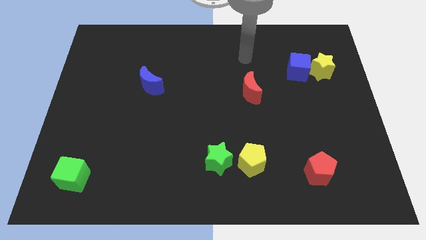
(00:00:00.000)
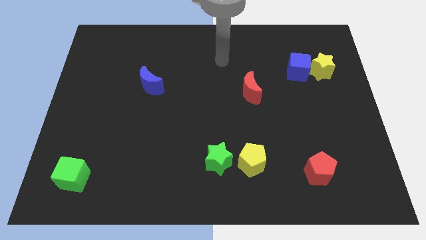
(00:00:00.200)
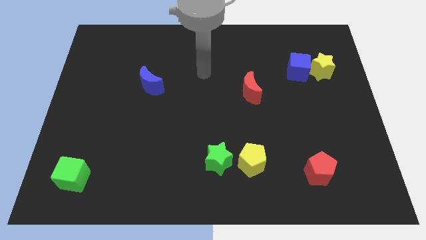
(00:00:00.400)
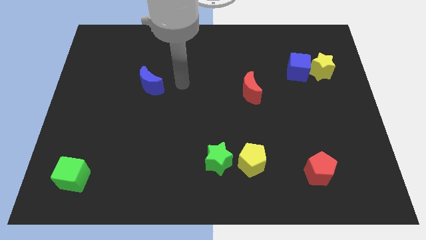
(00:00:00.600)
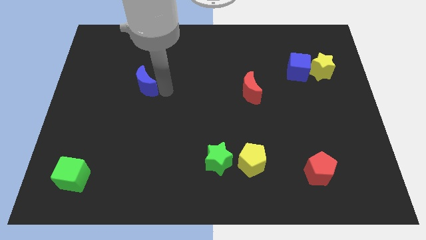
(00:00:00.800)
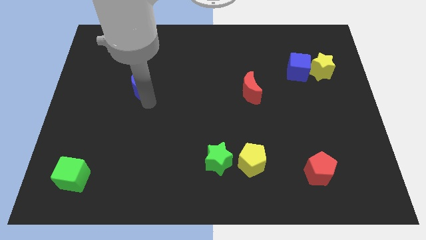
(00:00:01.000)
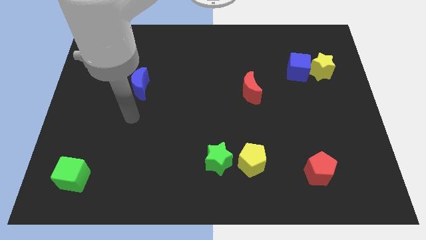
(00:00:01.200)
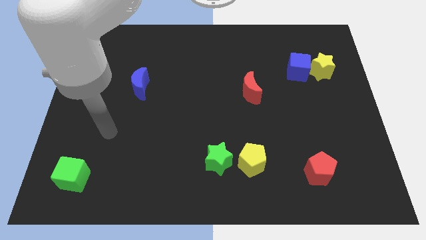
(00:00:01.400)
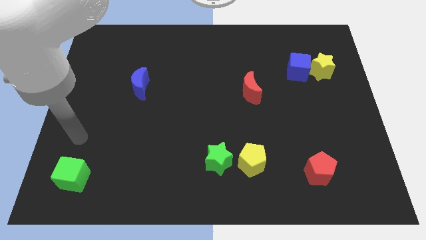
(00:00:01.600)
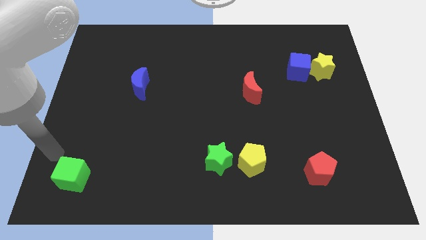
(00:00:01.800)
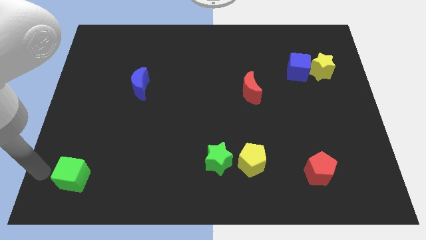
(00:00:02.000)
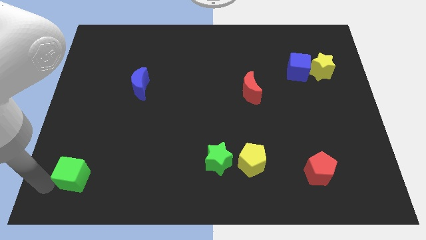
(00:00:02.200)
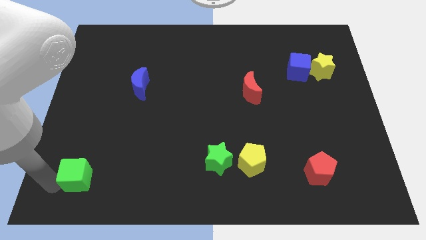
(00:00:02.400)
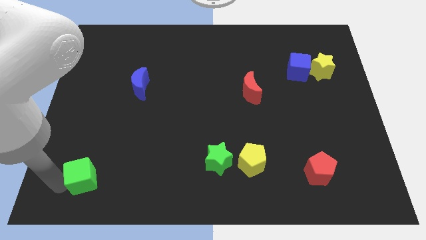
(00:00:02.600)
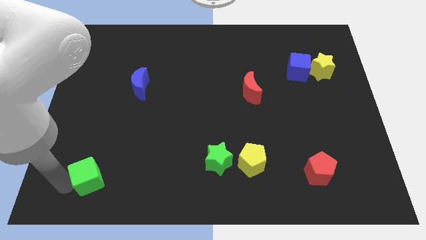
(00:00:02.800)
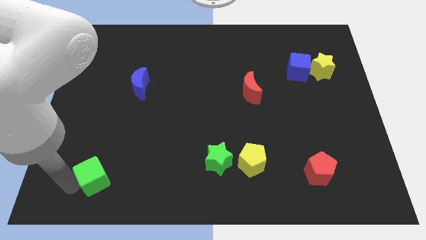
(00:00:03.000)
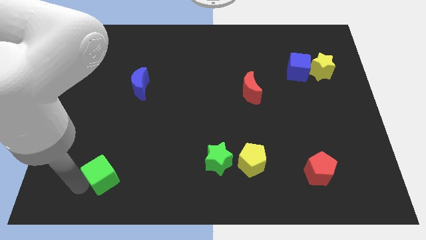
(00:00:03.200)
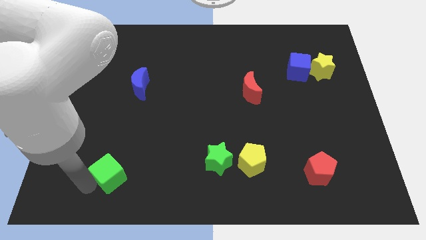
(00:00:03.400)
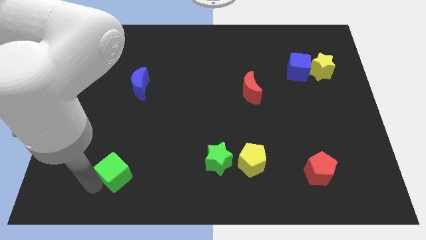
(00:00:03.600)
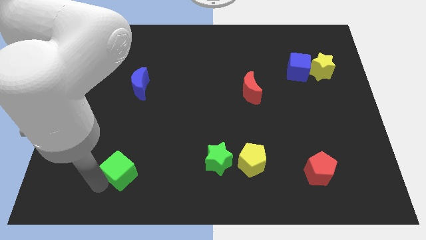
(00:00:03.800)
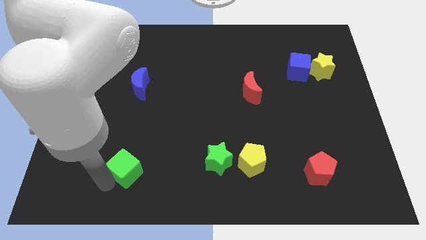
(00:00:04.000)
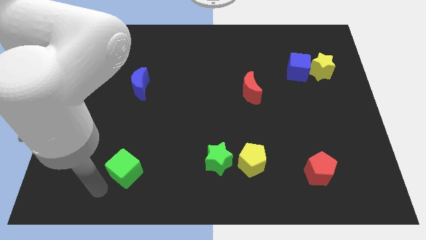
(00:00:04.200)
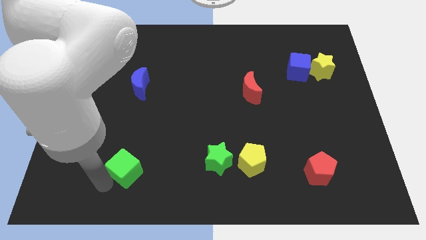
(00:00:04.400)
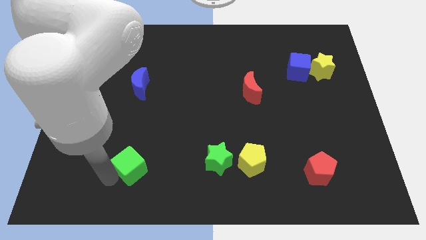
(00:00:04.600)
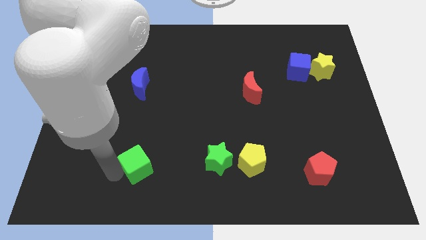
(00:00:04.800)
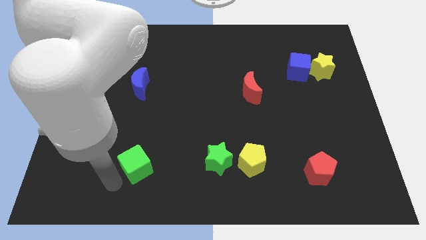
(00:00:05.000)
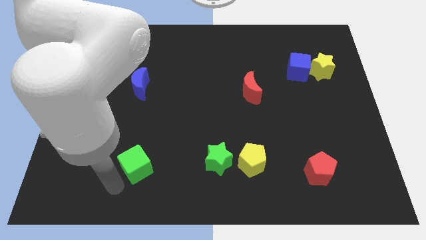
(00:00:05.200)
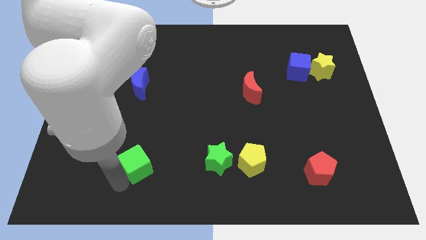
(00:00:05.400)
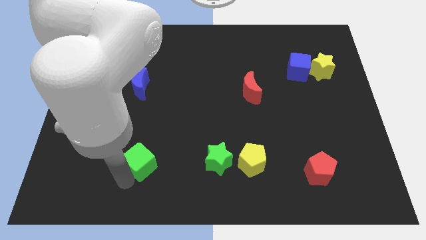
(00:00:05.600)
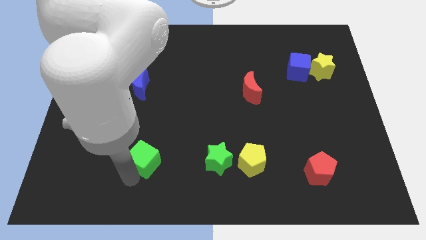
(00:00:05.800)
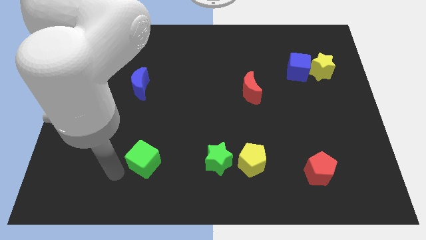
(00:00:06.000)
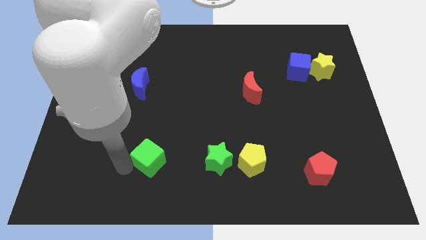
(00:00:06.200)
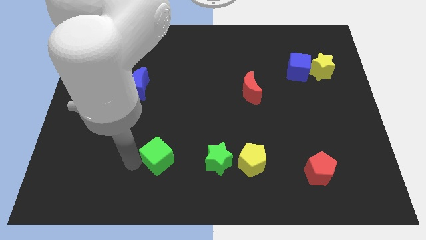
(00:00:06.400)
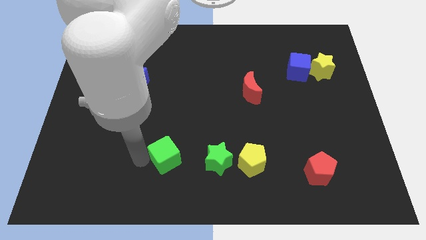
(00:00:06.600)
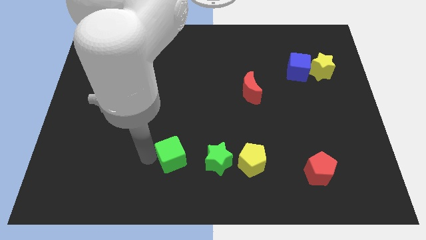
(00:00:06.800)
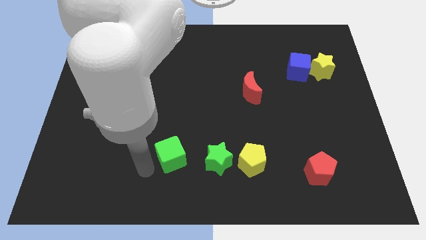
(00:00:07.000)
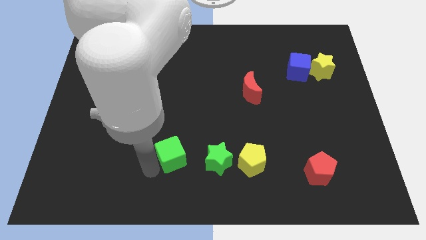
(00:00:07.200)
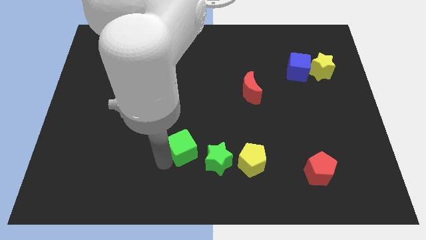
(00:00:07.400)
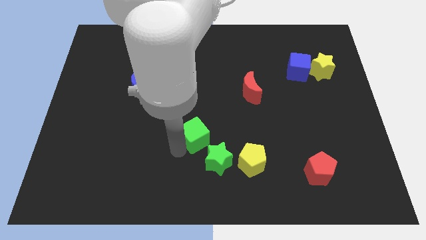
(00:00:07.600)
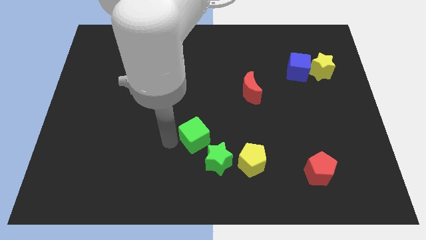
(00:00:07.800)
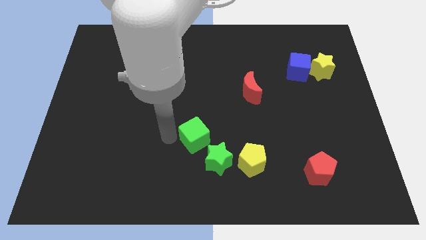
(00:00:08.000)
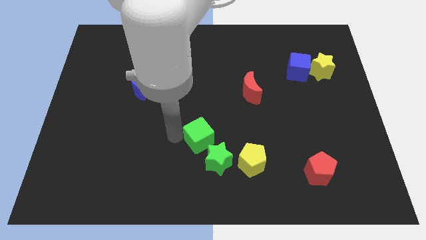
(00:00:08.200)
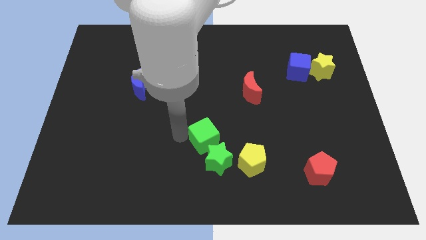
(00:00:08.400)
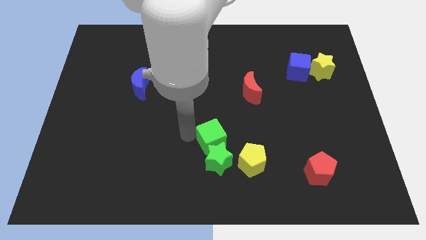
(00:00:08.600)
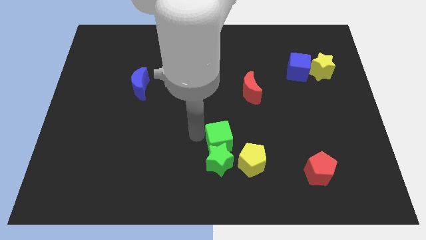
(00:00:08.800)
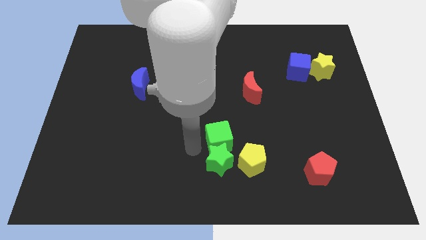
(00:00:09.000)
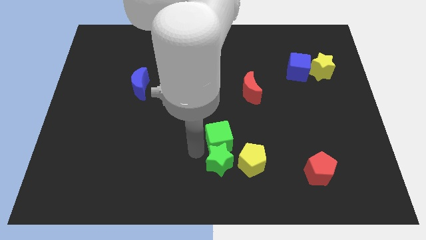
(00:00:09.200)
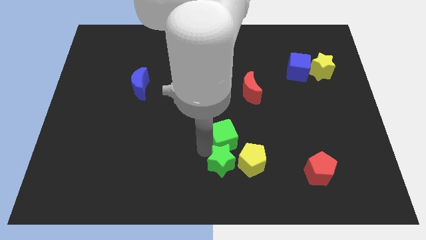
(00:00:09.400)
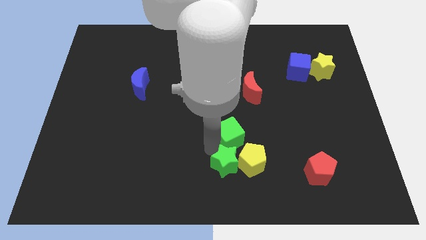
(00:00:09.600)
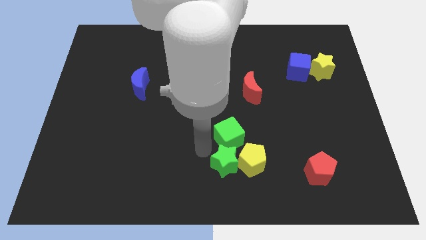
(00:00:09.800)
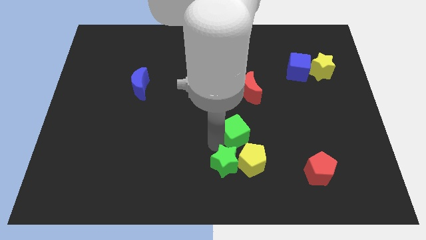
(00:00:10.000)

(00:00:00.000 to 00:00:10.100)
move the green cube to the bottom of the red moon

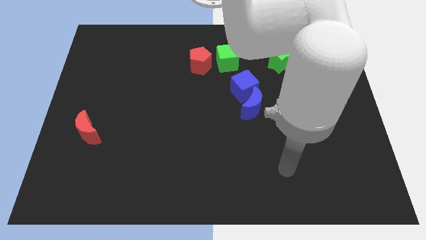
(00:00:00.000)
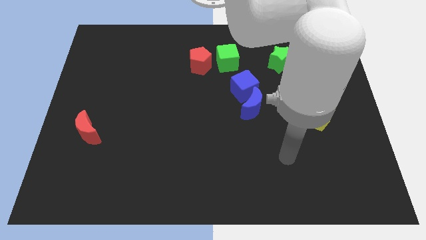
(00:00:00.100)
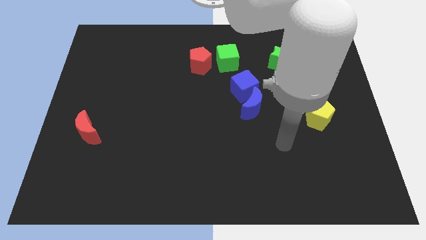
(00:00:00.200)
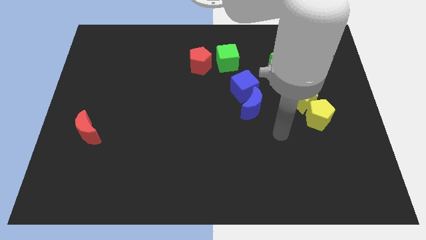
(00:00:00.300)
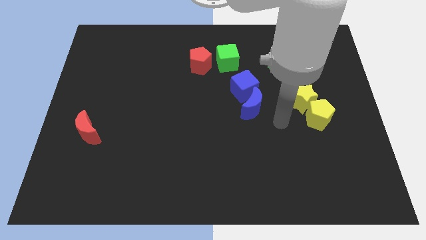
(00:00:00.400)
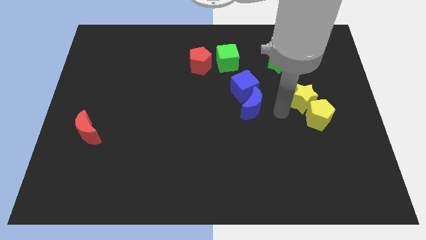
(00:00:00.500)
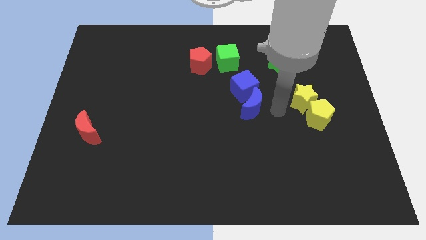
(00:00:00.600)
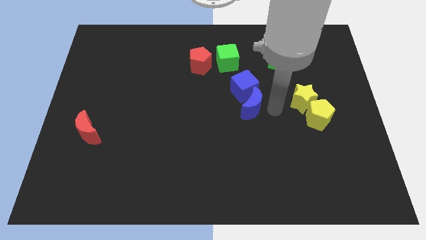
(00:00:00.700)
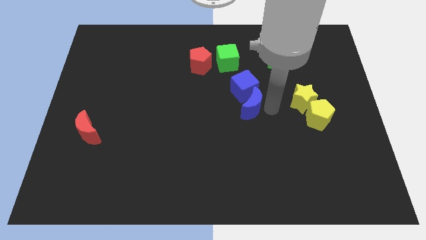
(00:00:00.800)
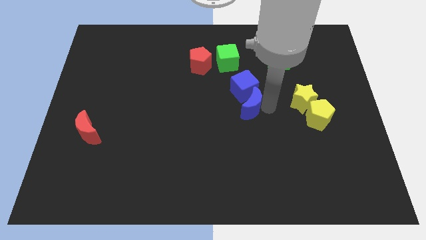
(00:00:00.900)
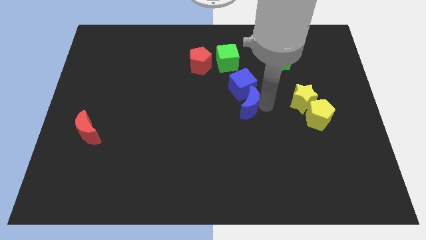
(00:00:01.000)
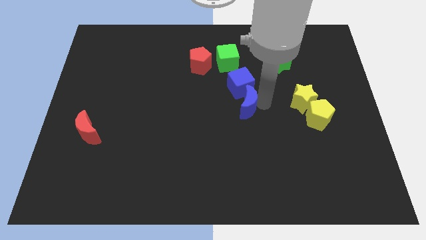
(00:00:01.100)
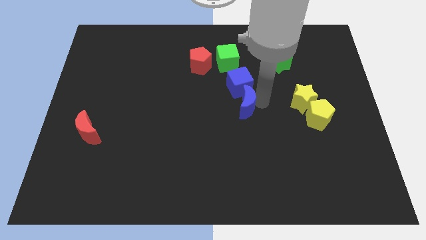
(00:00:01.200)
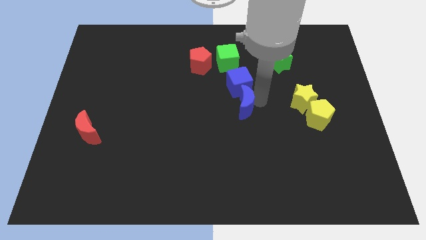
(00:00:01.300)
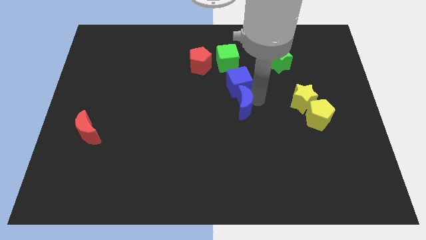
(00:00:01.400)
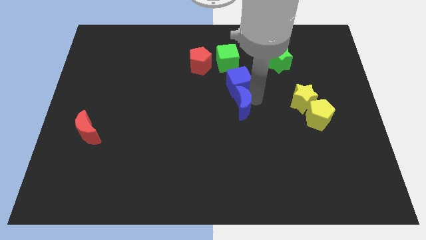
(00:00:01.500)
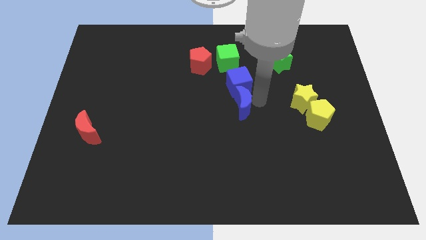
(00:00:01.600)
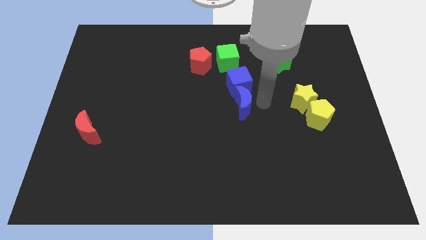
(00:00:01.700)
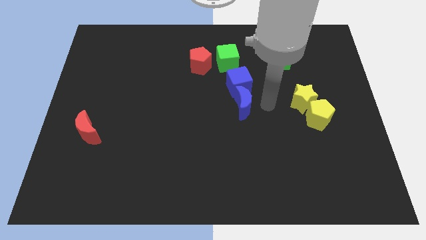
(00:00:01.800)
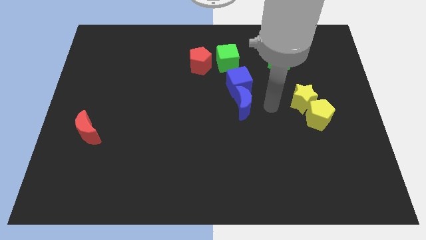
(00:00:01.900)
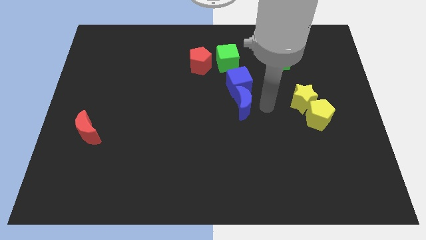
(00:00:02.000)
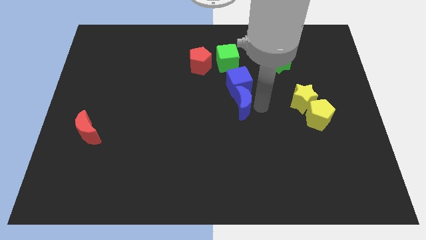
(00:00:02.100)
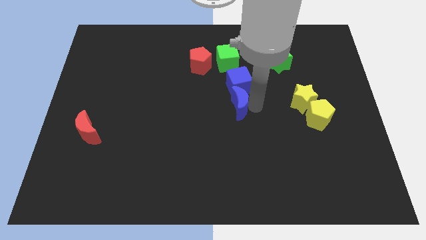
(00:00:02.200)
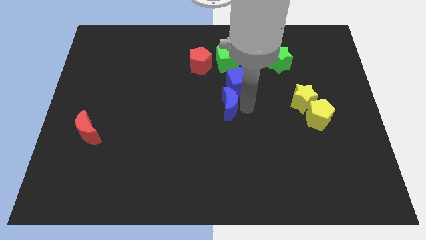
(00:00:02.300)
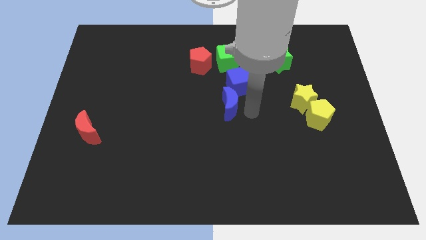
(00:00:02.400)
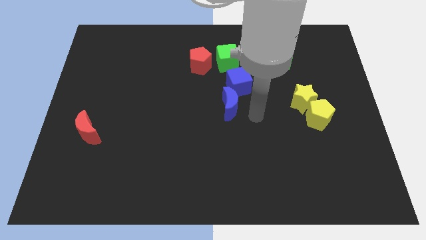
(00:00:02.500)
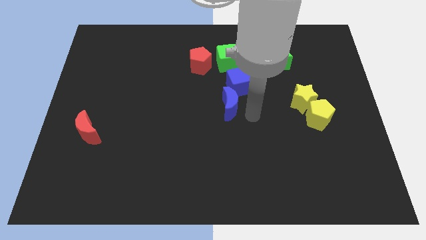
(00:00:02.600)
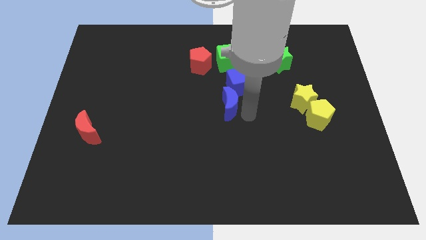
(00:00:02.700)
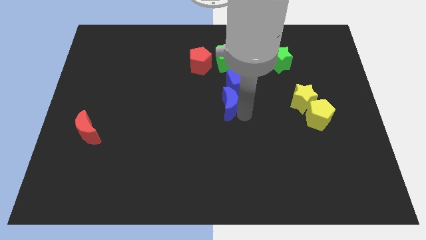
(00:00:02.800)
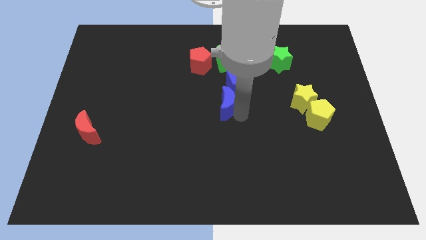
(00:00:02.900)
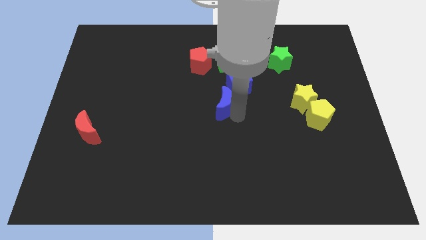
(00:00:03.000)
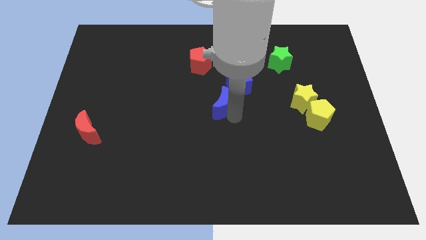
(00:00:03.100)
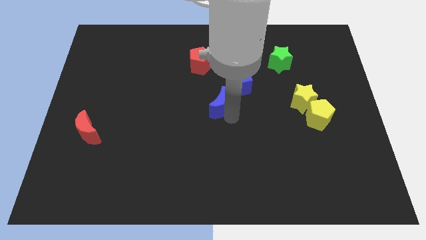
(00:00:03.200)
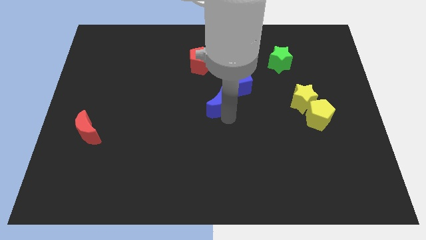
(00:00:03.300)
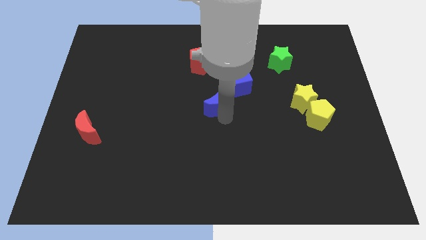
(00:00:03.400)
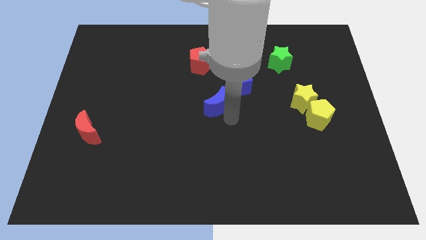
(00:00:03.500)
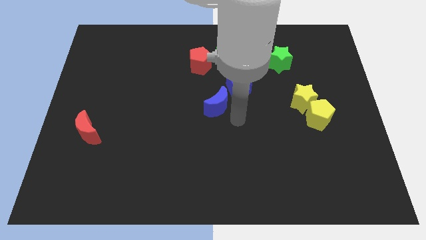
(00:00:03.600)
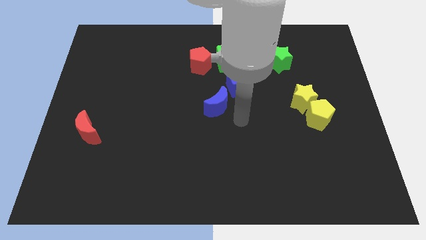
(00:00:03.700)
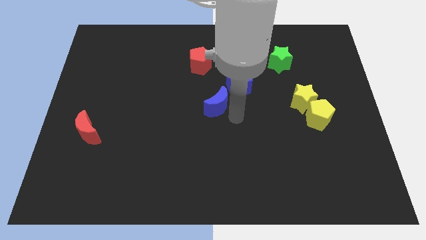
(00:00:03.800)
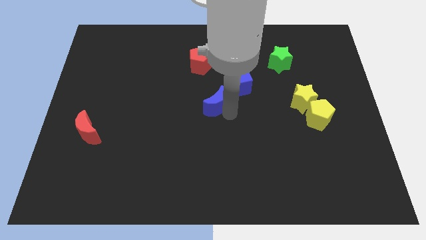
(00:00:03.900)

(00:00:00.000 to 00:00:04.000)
push the blue moon to the bottom of the red pentagon
